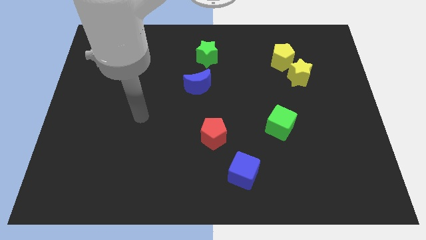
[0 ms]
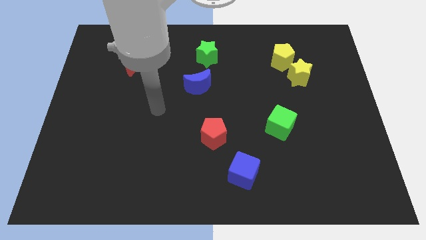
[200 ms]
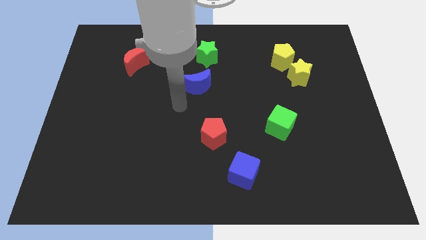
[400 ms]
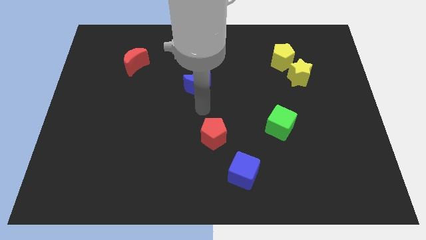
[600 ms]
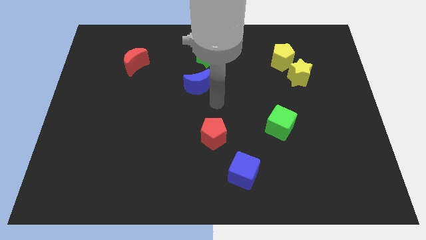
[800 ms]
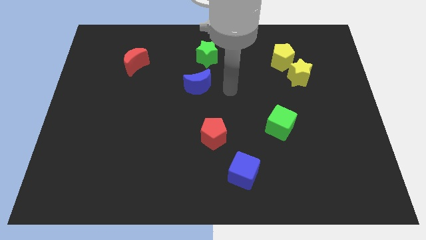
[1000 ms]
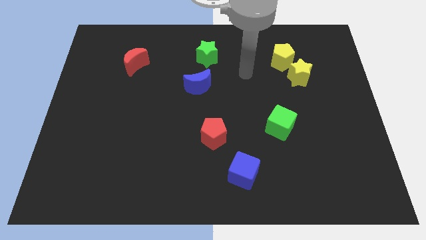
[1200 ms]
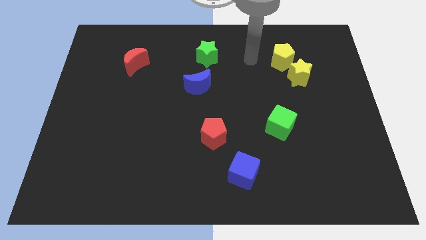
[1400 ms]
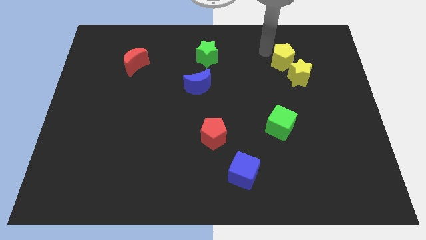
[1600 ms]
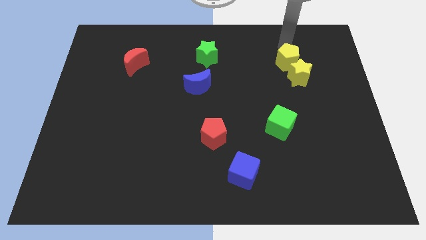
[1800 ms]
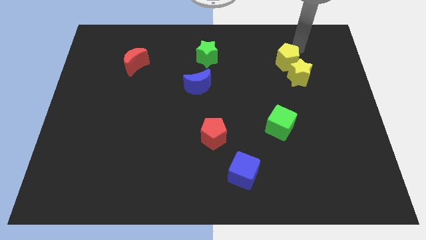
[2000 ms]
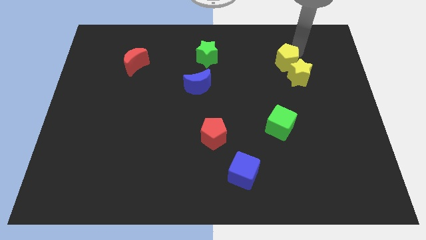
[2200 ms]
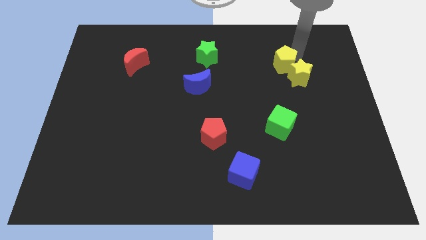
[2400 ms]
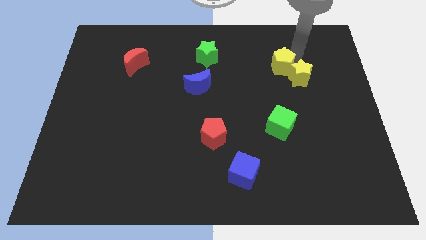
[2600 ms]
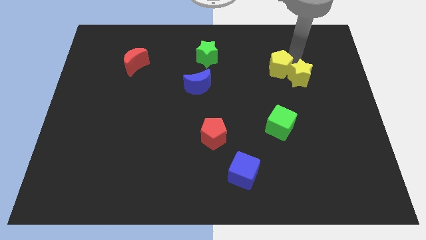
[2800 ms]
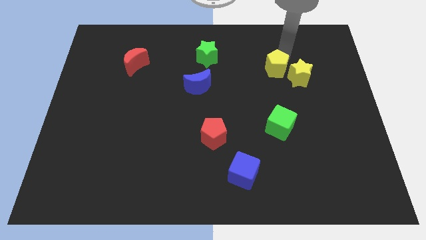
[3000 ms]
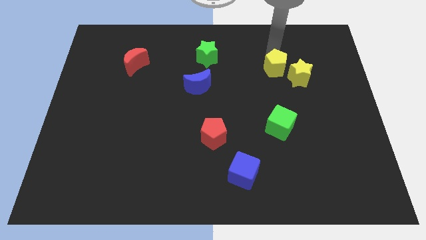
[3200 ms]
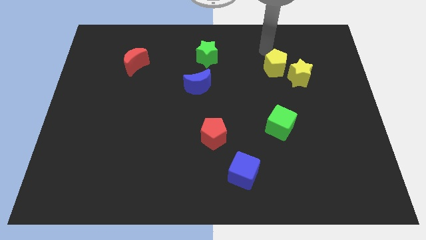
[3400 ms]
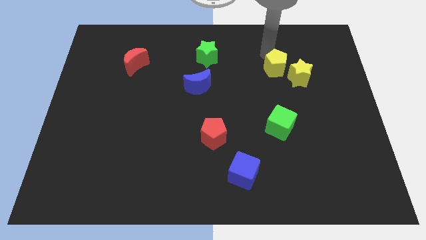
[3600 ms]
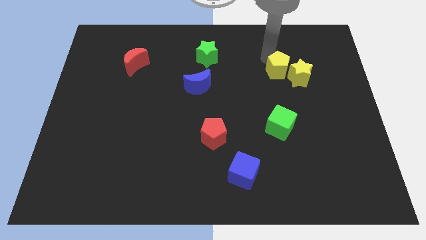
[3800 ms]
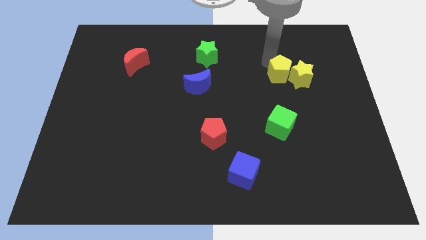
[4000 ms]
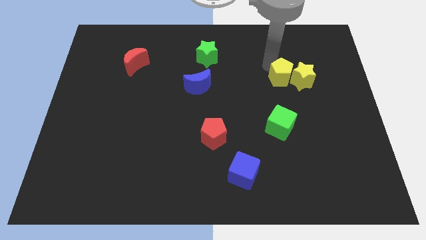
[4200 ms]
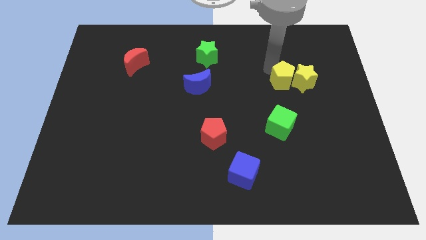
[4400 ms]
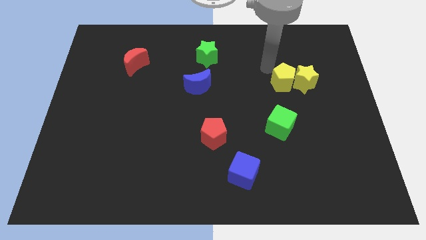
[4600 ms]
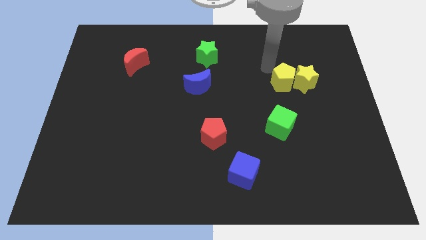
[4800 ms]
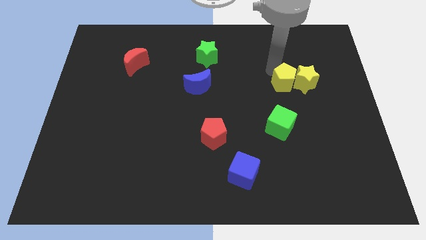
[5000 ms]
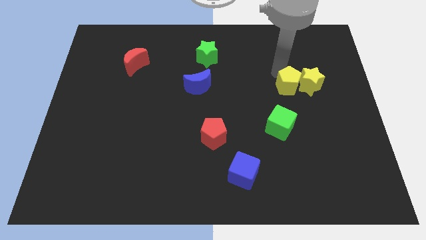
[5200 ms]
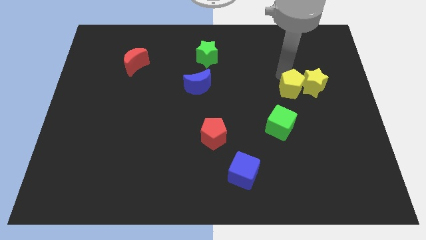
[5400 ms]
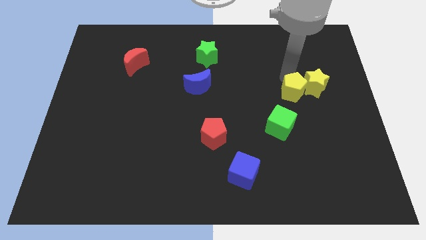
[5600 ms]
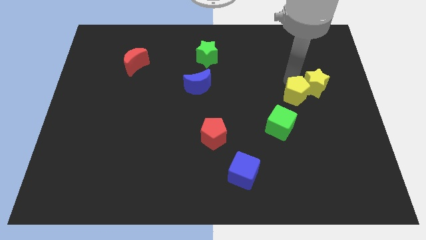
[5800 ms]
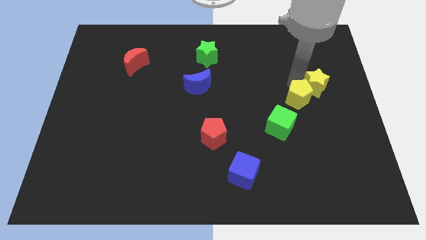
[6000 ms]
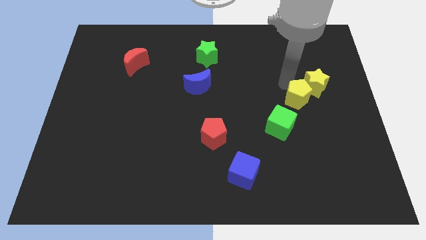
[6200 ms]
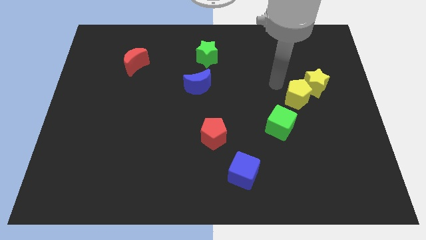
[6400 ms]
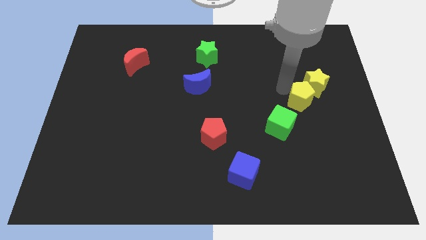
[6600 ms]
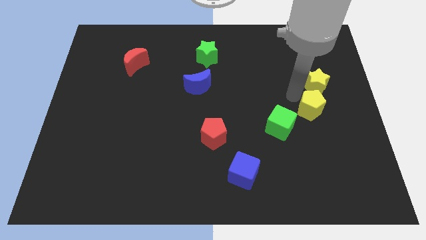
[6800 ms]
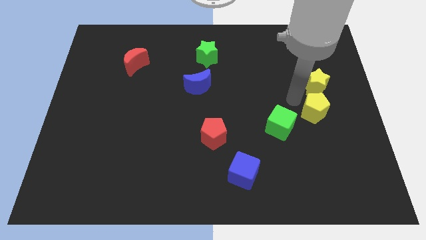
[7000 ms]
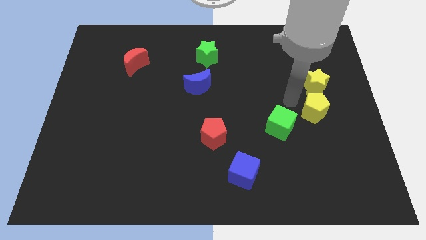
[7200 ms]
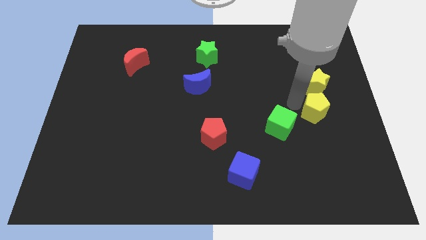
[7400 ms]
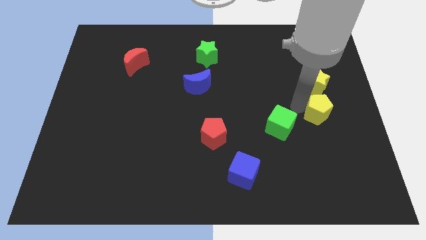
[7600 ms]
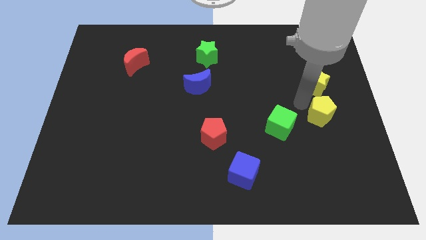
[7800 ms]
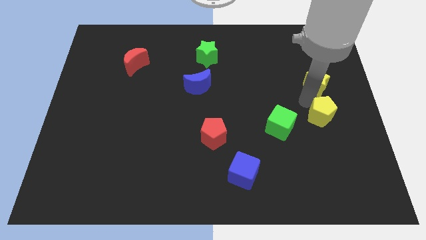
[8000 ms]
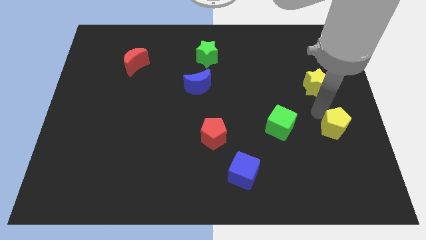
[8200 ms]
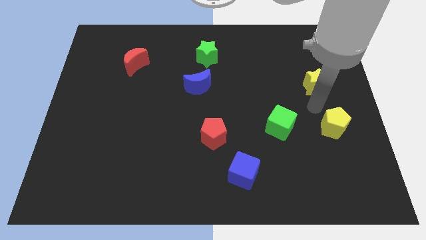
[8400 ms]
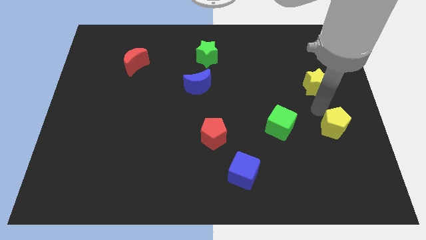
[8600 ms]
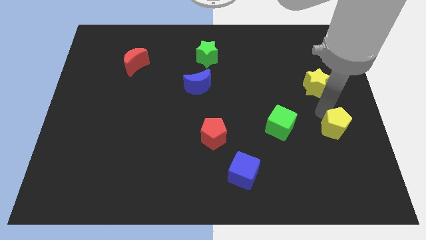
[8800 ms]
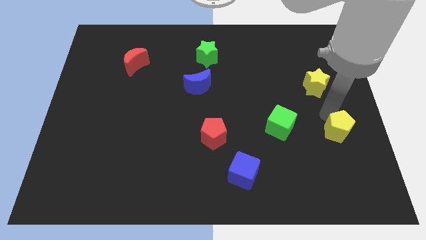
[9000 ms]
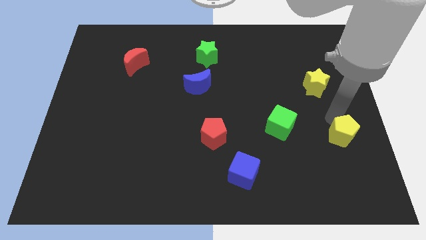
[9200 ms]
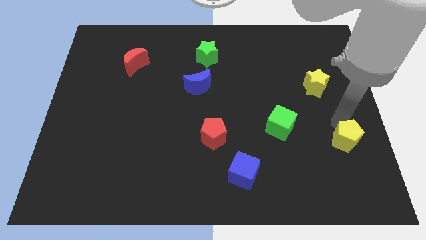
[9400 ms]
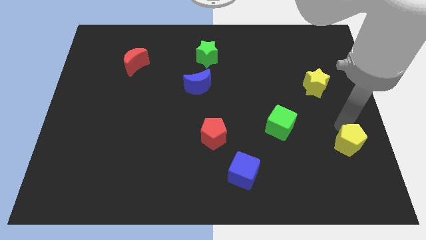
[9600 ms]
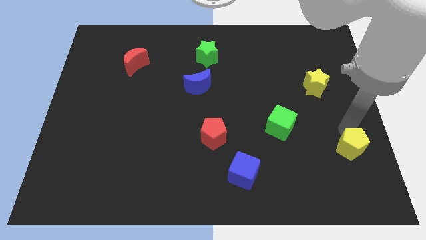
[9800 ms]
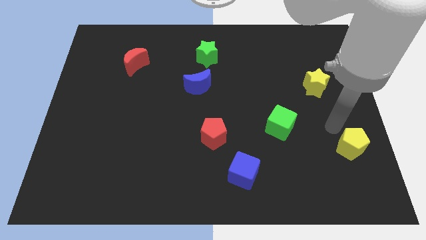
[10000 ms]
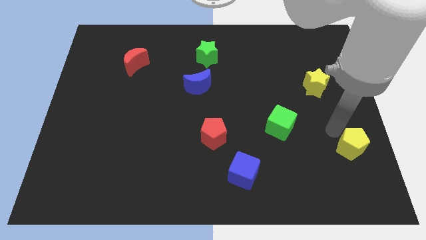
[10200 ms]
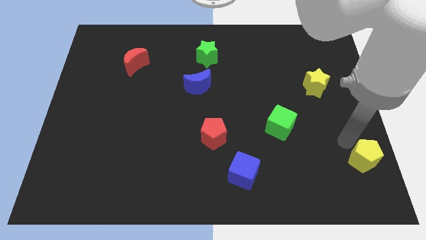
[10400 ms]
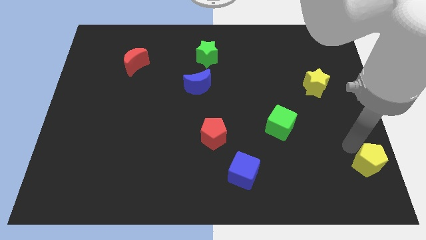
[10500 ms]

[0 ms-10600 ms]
move the yellow pentagon to the bottom right

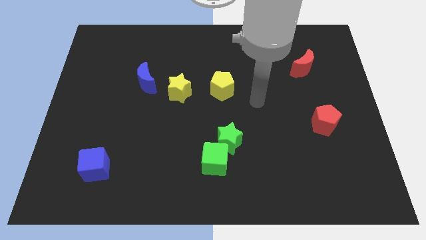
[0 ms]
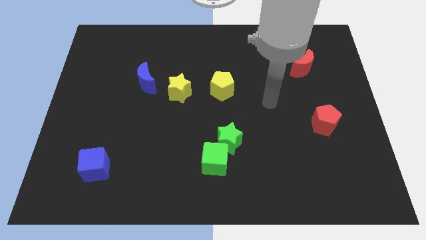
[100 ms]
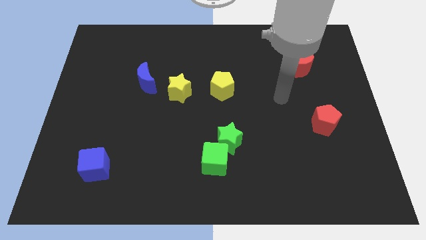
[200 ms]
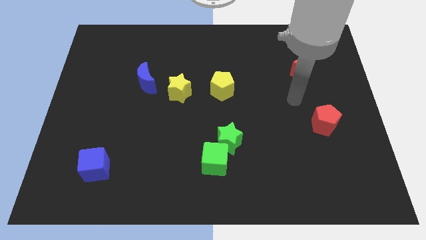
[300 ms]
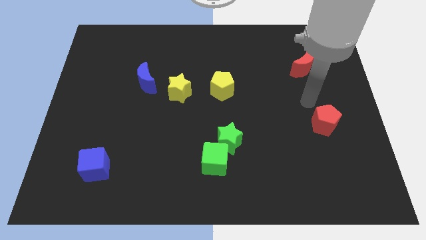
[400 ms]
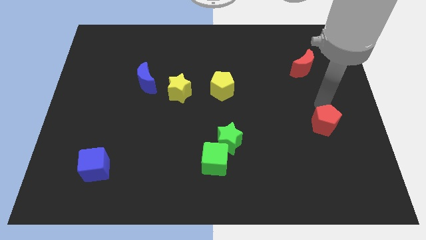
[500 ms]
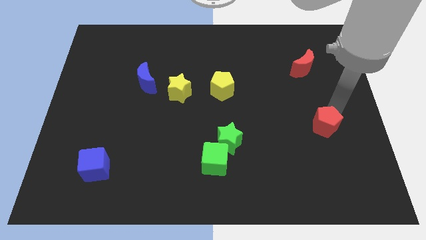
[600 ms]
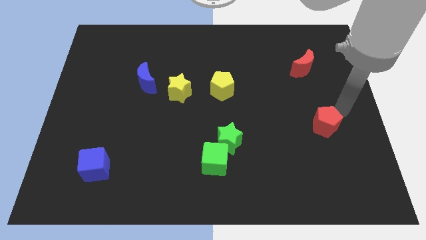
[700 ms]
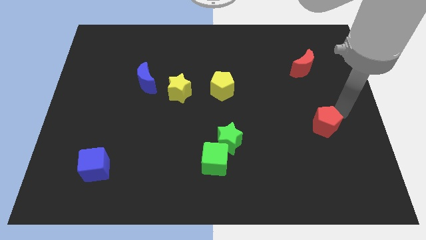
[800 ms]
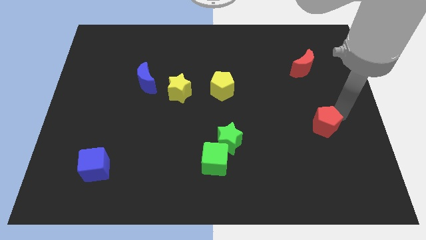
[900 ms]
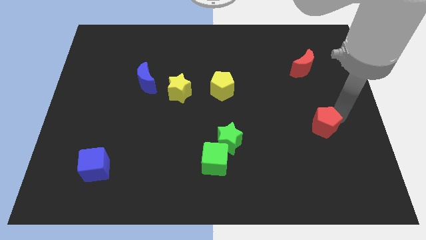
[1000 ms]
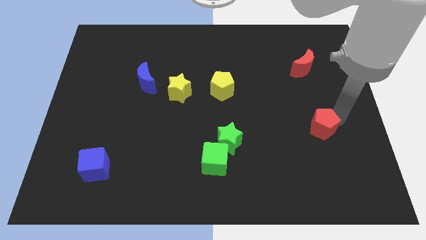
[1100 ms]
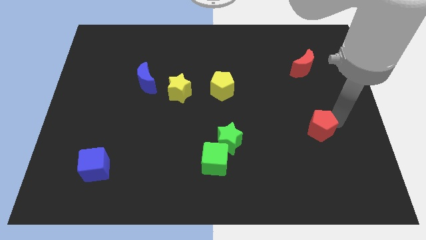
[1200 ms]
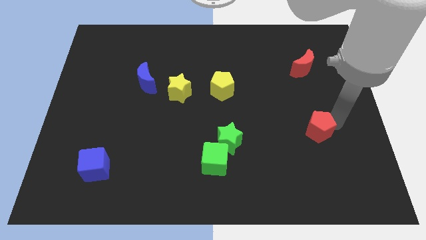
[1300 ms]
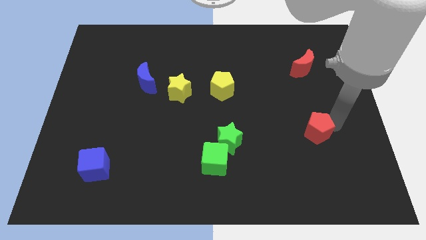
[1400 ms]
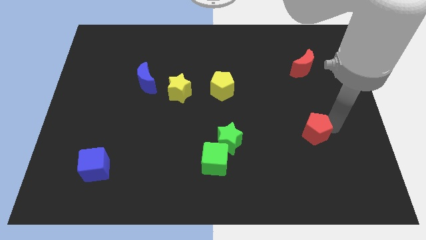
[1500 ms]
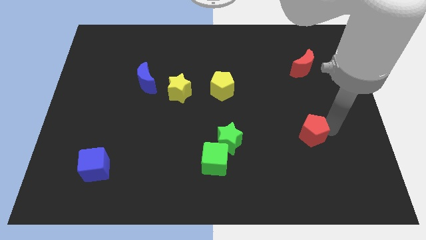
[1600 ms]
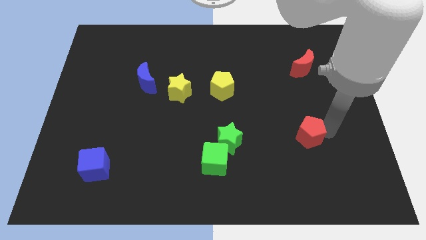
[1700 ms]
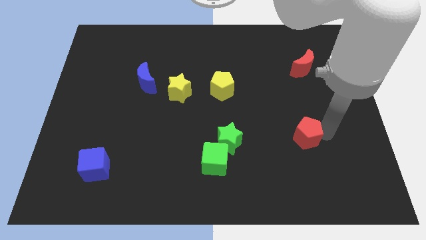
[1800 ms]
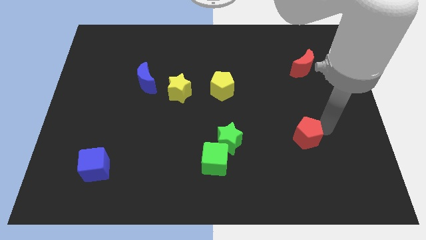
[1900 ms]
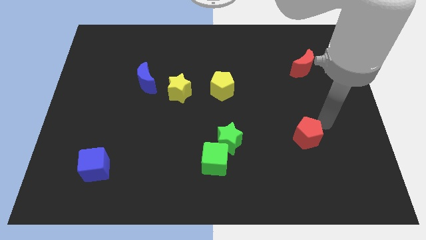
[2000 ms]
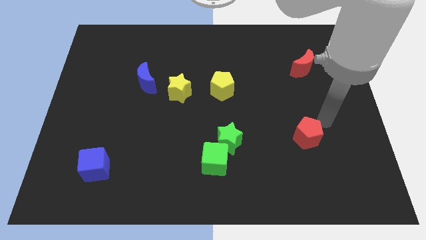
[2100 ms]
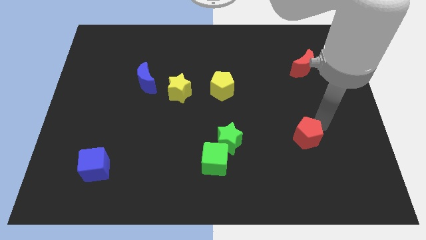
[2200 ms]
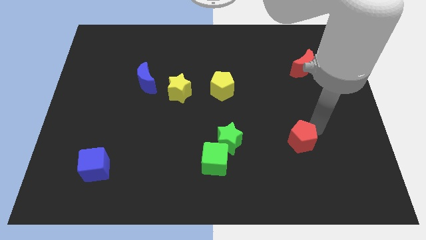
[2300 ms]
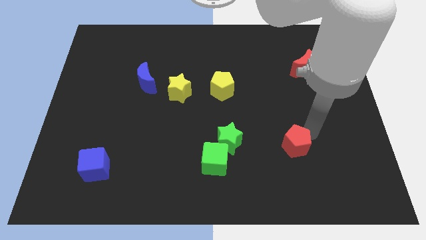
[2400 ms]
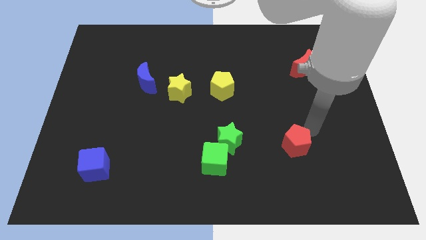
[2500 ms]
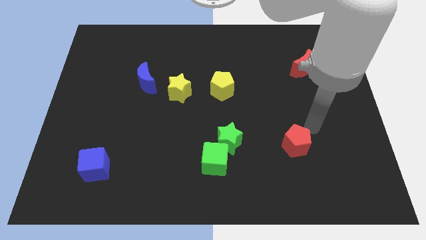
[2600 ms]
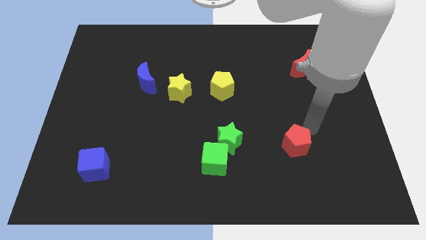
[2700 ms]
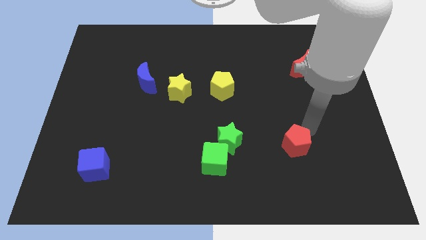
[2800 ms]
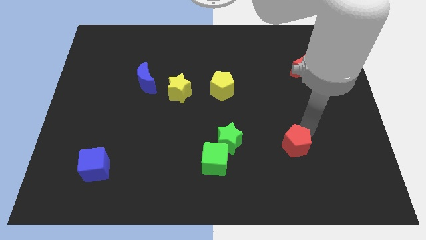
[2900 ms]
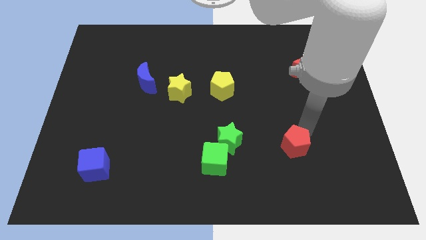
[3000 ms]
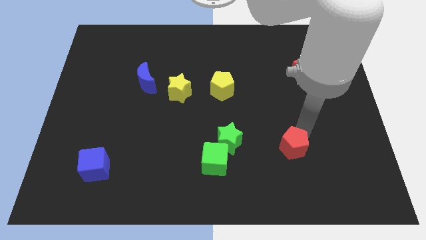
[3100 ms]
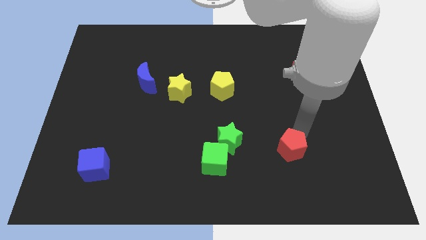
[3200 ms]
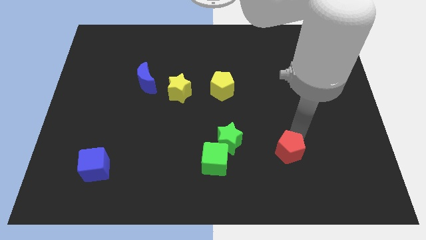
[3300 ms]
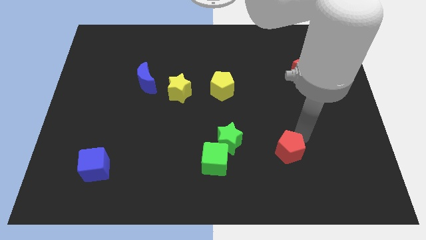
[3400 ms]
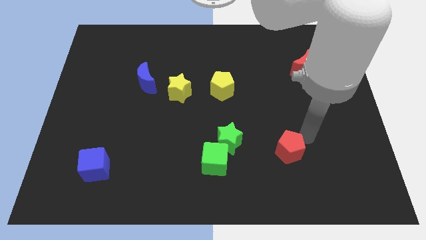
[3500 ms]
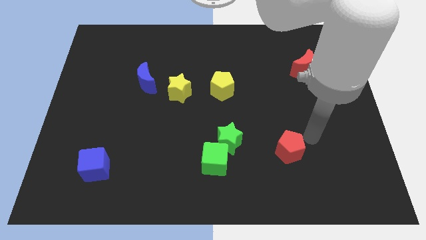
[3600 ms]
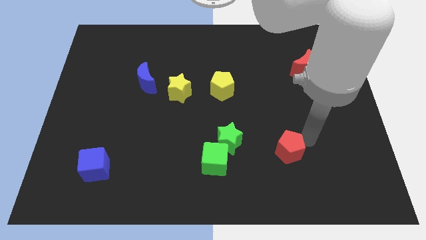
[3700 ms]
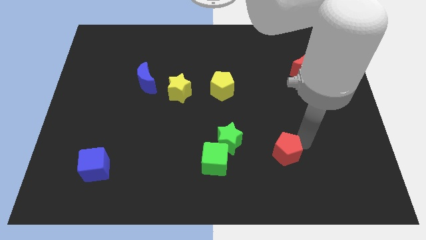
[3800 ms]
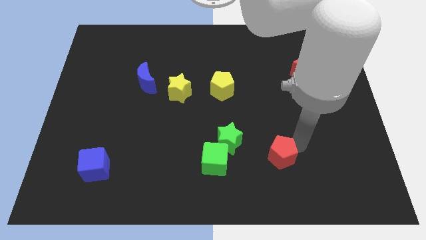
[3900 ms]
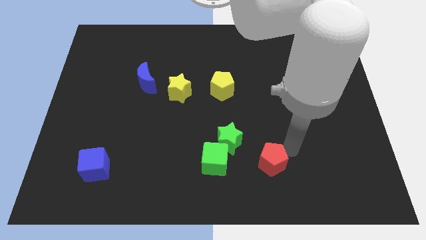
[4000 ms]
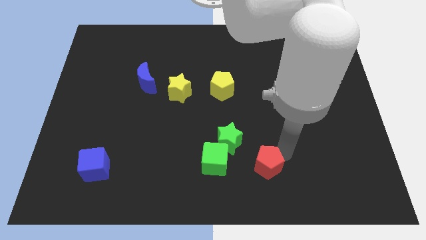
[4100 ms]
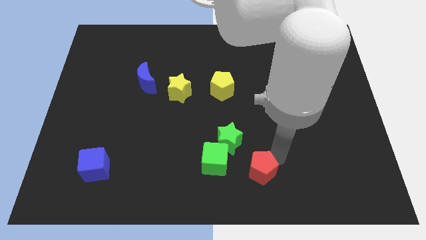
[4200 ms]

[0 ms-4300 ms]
slide the red pentagon to the bottom
